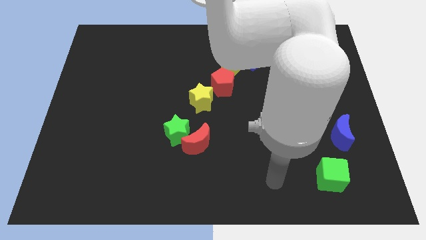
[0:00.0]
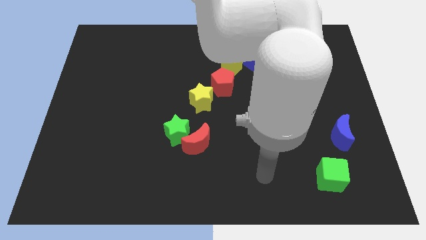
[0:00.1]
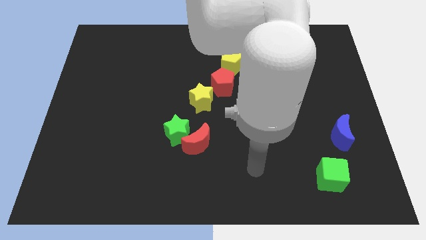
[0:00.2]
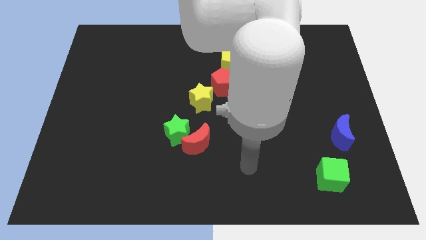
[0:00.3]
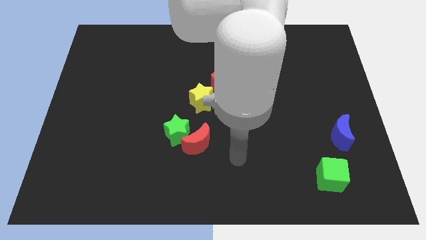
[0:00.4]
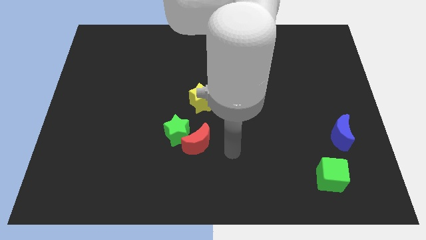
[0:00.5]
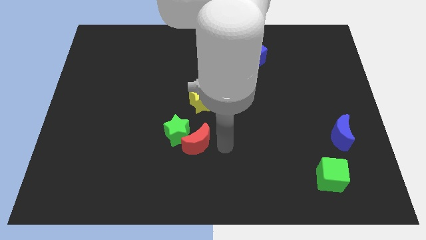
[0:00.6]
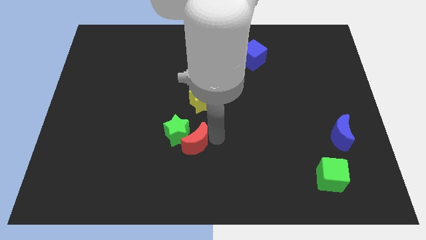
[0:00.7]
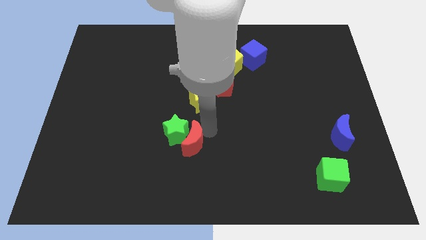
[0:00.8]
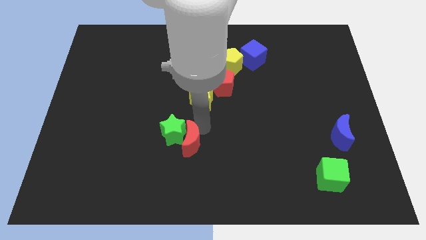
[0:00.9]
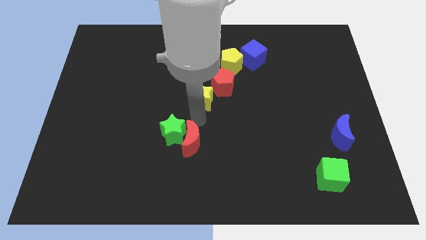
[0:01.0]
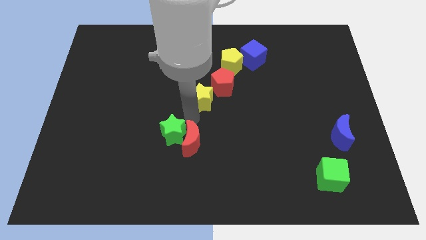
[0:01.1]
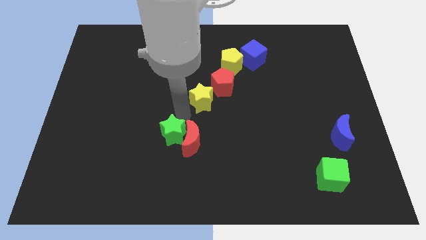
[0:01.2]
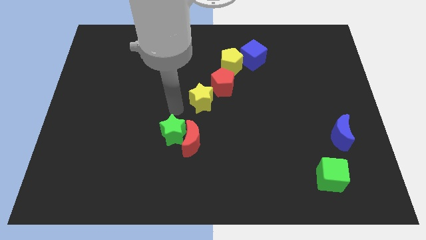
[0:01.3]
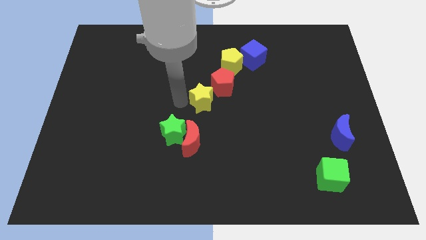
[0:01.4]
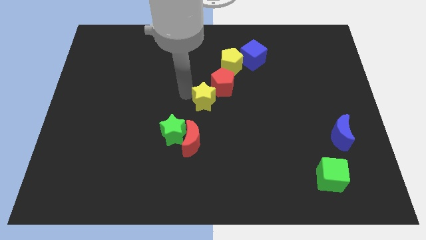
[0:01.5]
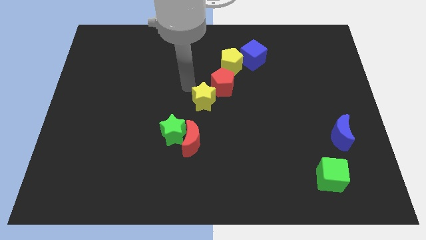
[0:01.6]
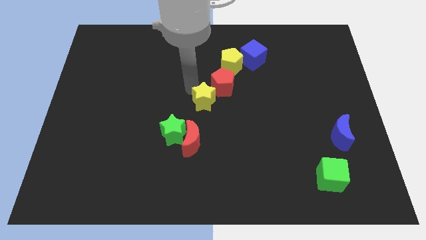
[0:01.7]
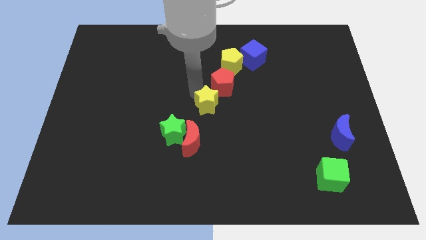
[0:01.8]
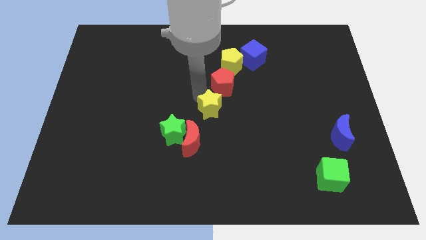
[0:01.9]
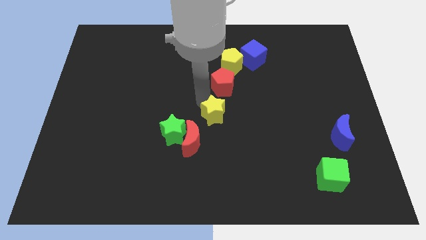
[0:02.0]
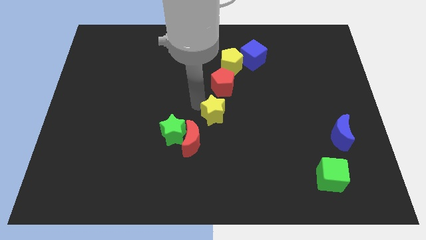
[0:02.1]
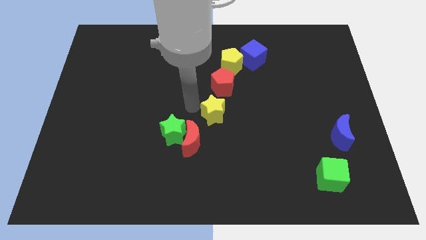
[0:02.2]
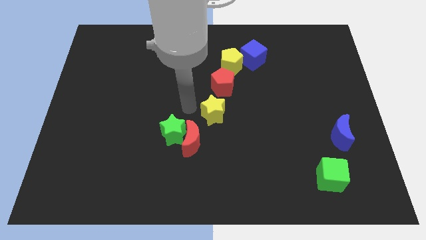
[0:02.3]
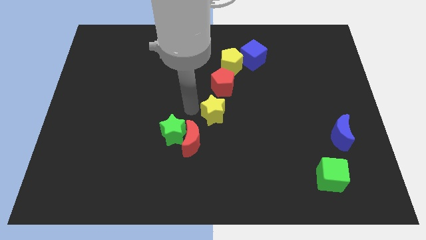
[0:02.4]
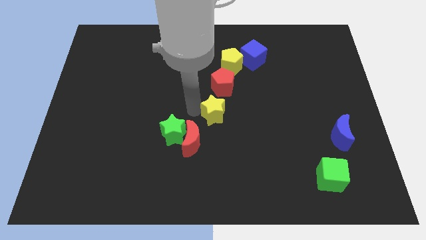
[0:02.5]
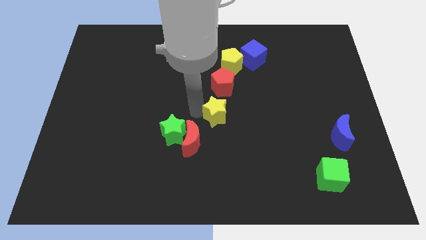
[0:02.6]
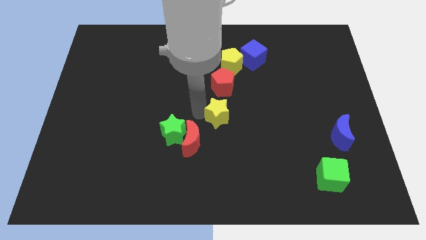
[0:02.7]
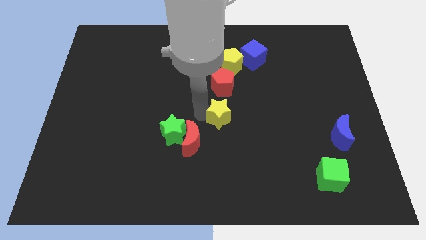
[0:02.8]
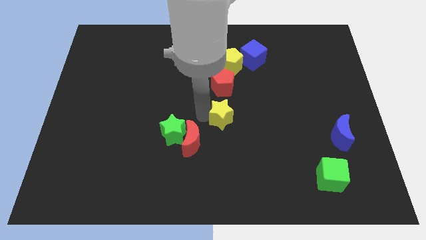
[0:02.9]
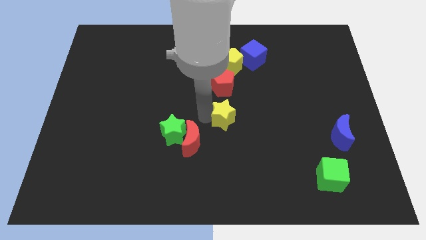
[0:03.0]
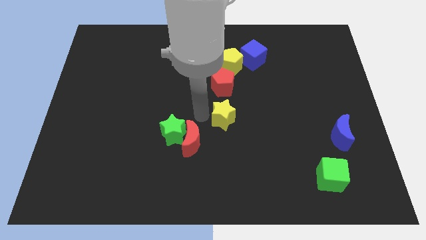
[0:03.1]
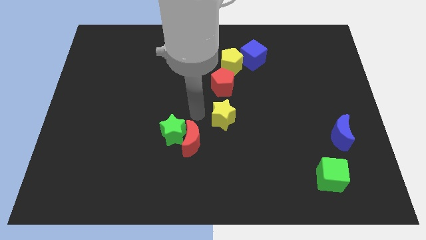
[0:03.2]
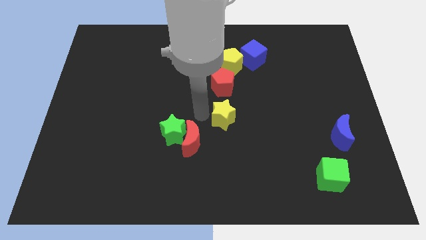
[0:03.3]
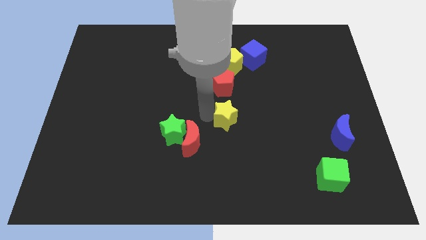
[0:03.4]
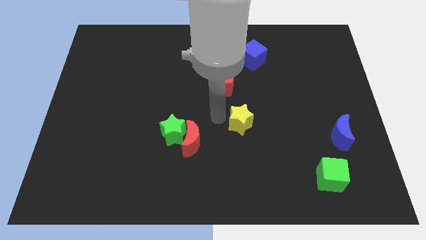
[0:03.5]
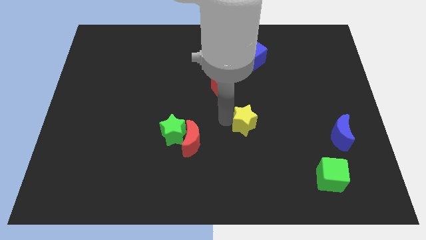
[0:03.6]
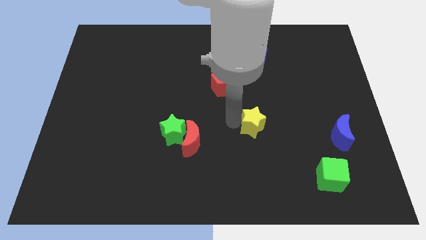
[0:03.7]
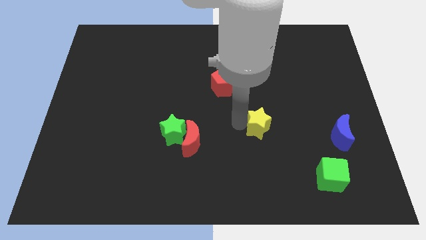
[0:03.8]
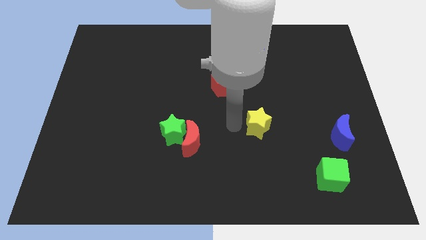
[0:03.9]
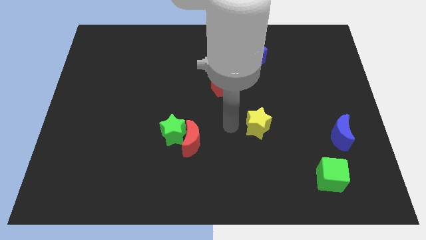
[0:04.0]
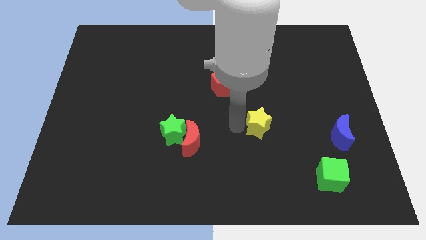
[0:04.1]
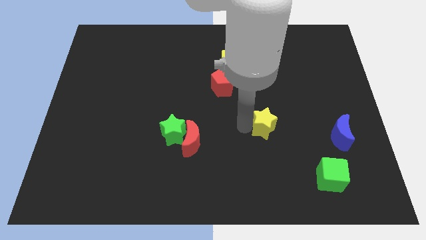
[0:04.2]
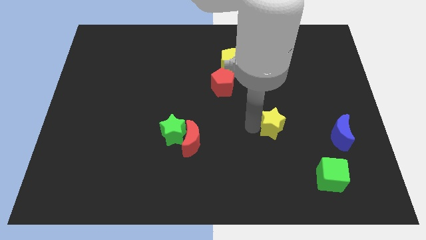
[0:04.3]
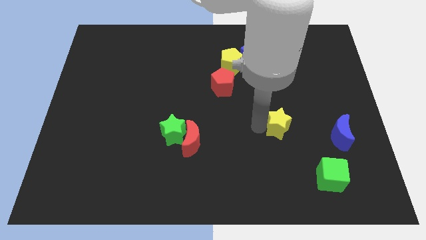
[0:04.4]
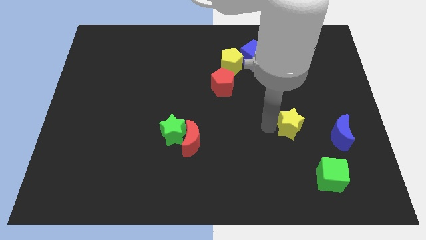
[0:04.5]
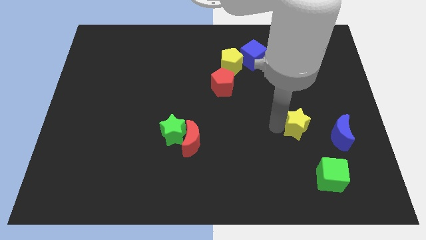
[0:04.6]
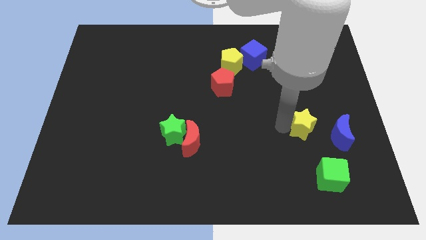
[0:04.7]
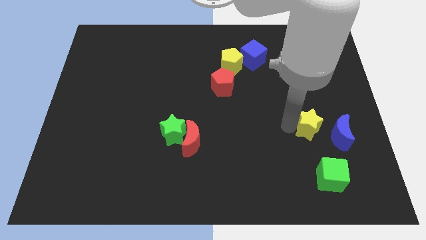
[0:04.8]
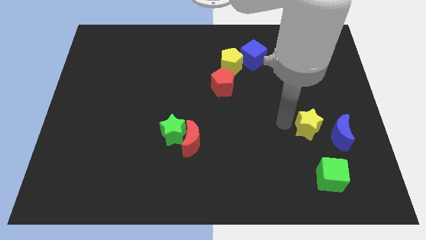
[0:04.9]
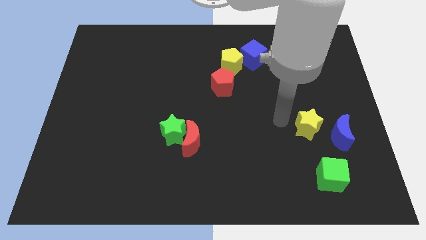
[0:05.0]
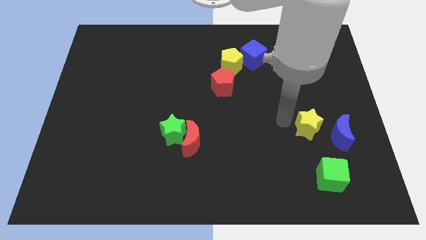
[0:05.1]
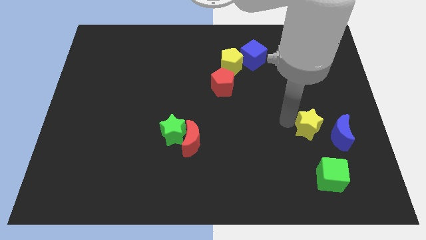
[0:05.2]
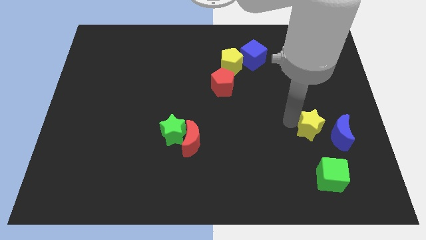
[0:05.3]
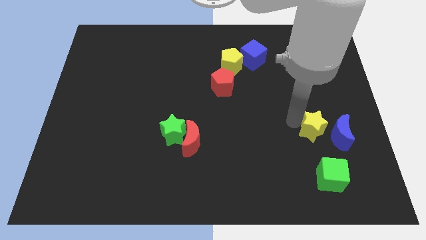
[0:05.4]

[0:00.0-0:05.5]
put the yellow star towards the blue moon

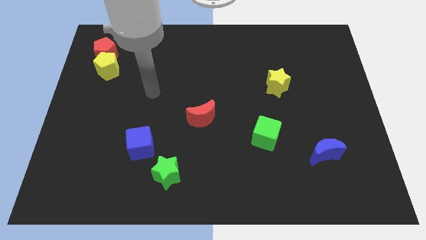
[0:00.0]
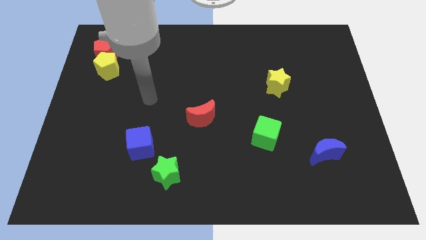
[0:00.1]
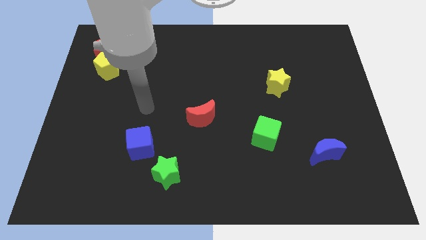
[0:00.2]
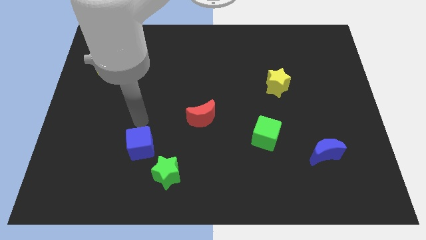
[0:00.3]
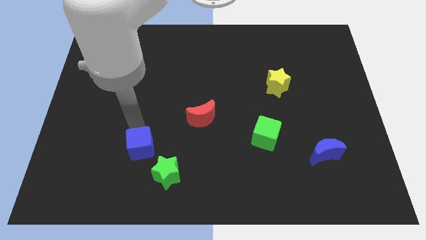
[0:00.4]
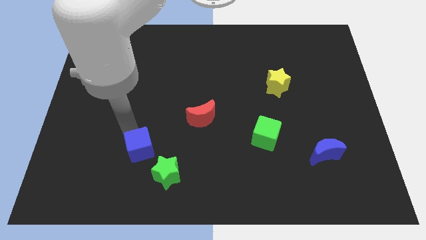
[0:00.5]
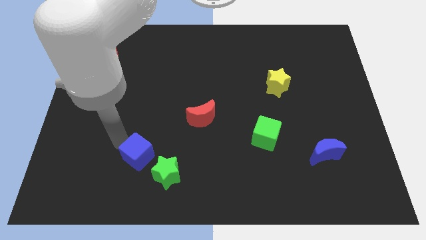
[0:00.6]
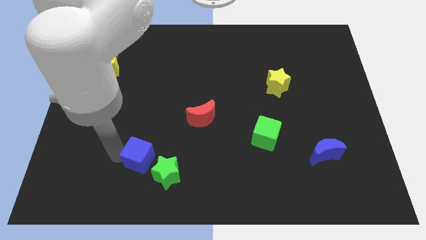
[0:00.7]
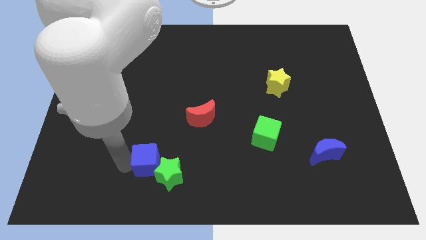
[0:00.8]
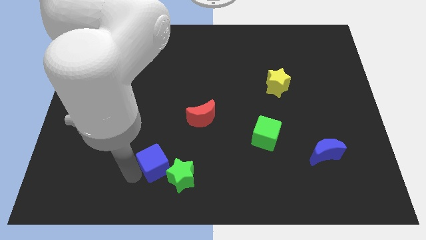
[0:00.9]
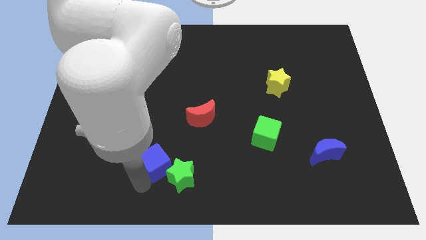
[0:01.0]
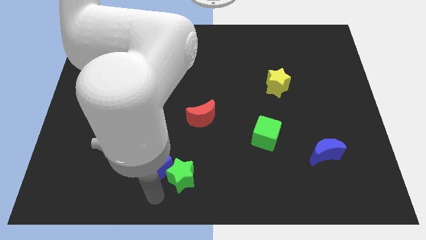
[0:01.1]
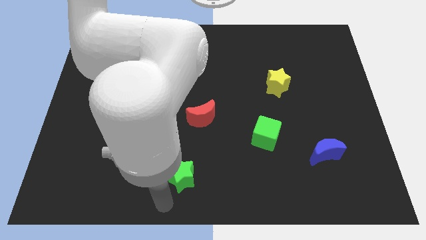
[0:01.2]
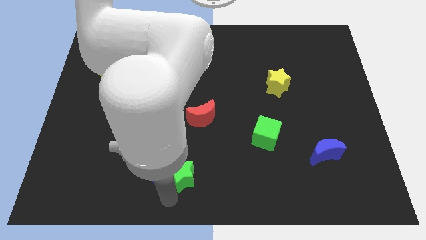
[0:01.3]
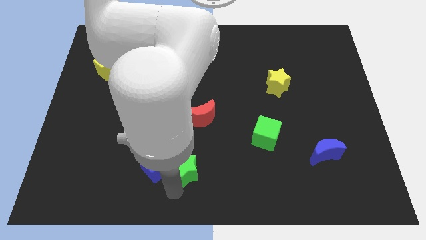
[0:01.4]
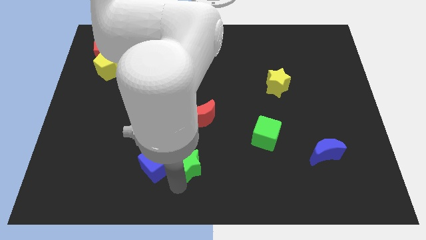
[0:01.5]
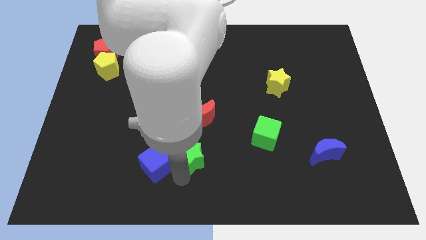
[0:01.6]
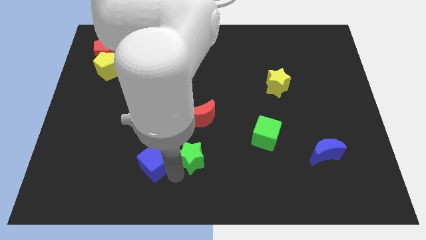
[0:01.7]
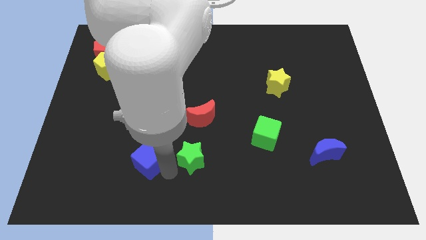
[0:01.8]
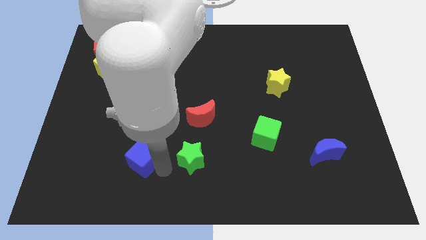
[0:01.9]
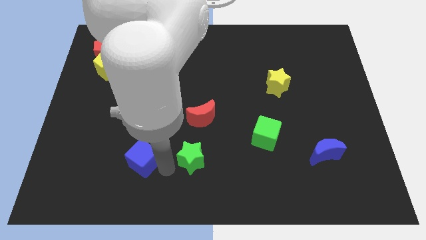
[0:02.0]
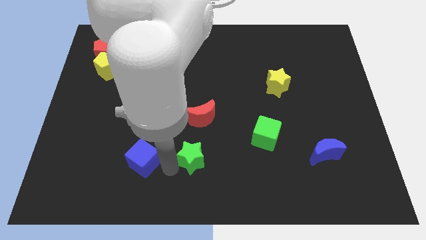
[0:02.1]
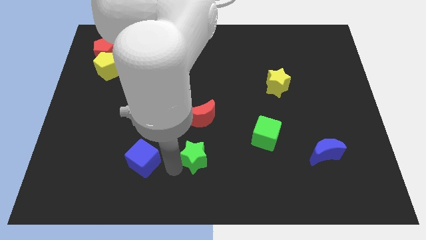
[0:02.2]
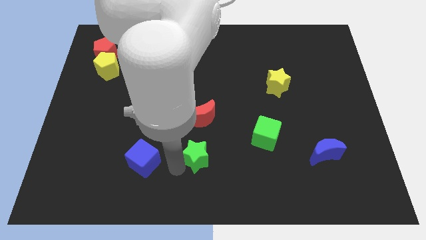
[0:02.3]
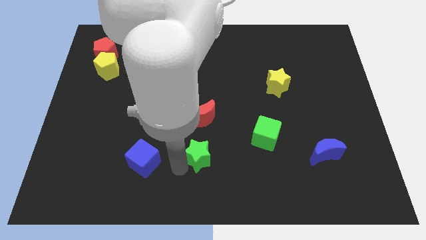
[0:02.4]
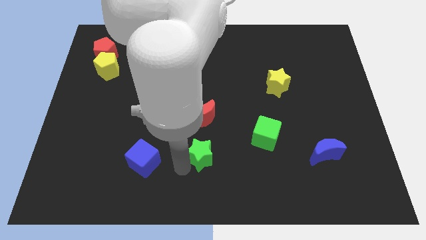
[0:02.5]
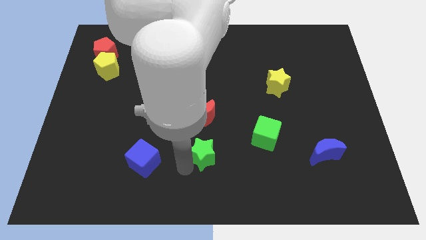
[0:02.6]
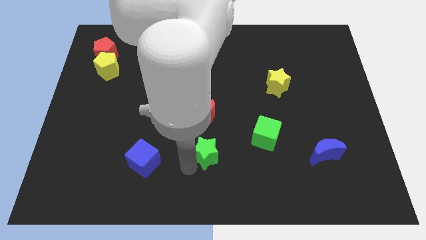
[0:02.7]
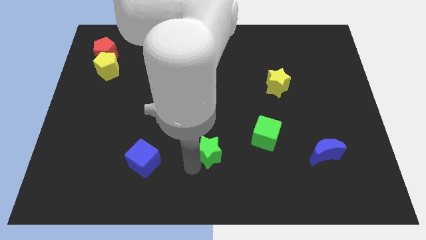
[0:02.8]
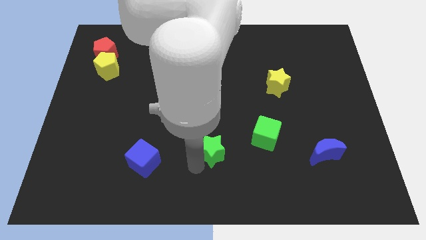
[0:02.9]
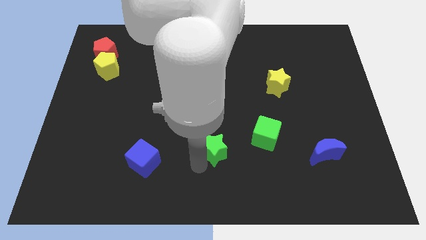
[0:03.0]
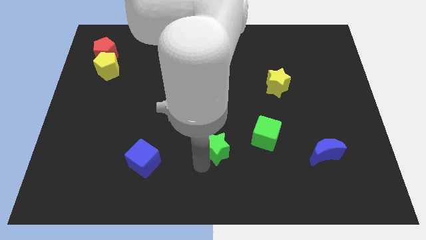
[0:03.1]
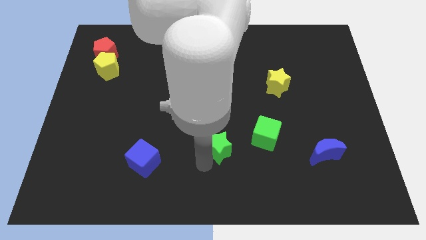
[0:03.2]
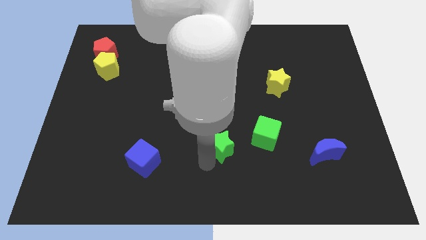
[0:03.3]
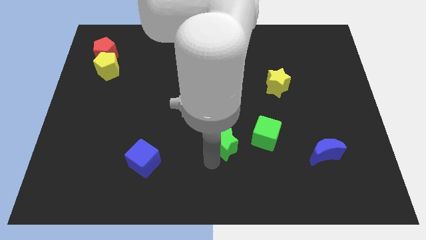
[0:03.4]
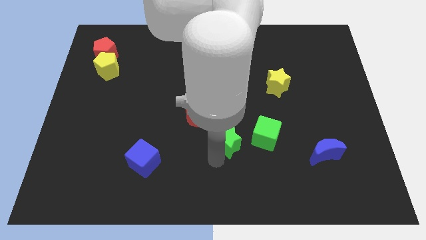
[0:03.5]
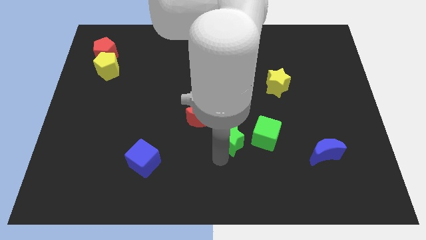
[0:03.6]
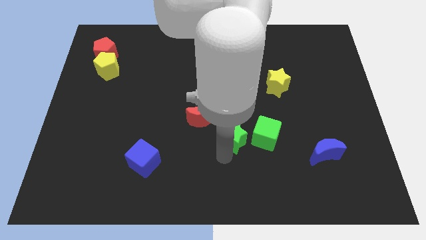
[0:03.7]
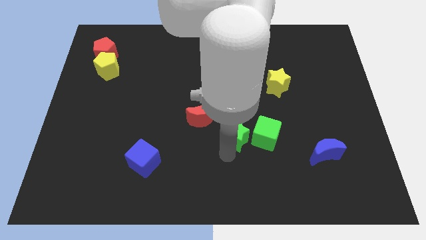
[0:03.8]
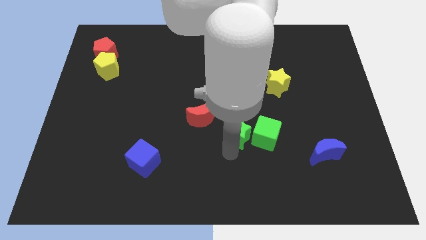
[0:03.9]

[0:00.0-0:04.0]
slide the green star next to the green cube
